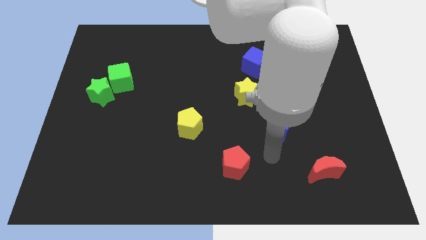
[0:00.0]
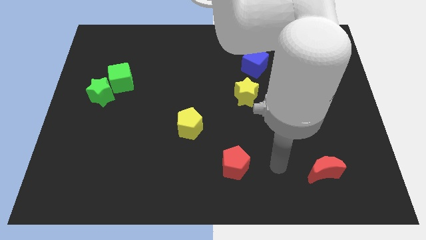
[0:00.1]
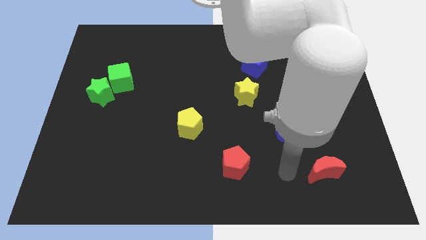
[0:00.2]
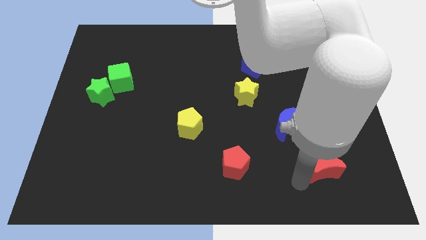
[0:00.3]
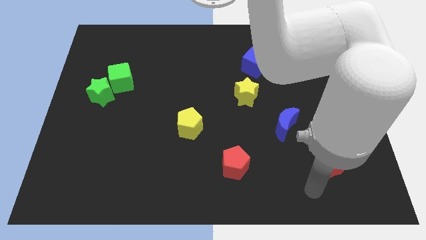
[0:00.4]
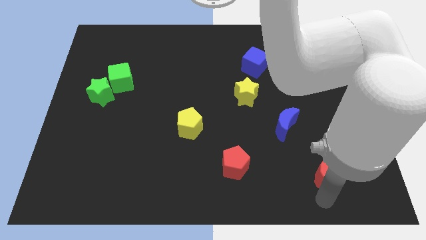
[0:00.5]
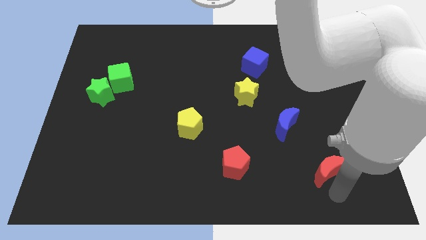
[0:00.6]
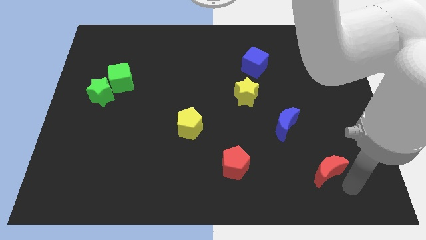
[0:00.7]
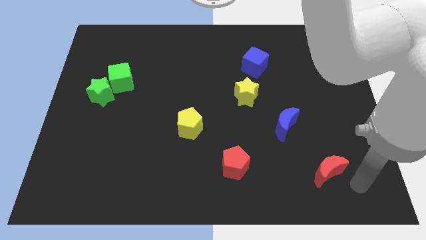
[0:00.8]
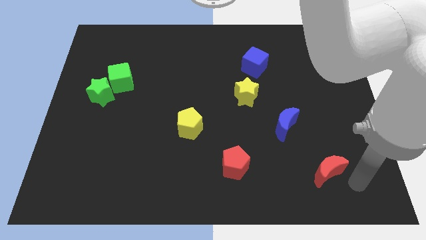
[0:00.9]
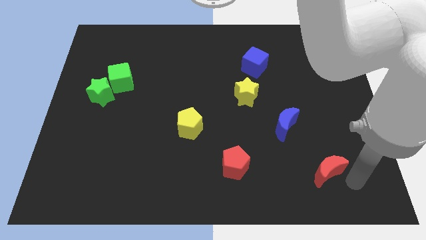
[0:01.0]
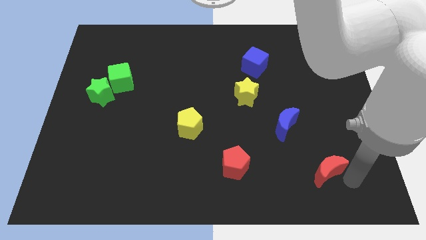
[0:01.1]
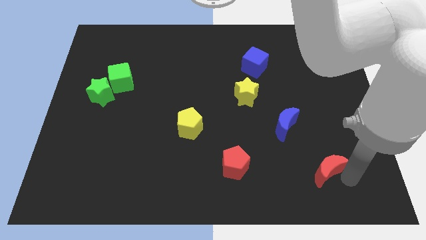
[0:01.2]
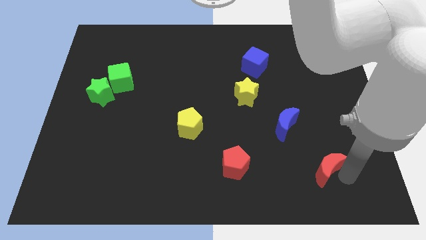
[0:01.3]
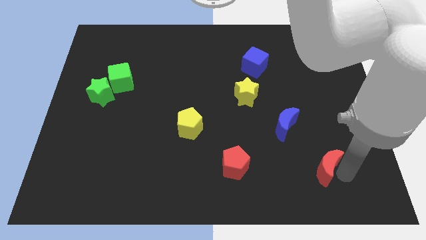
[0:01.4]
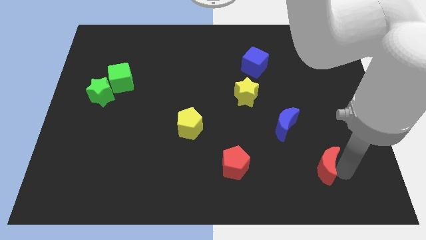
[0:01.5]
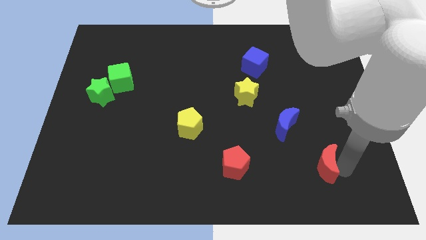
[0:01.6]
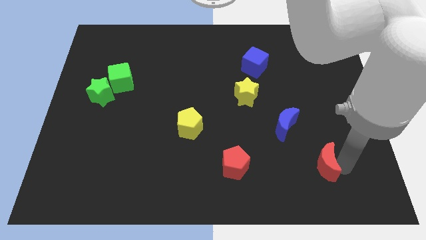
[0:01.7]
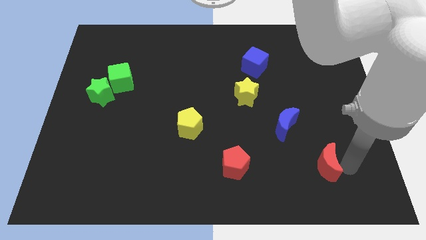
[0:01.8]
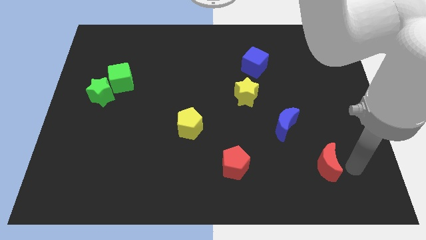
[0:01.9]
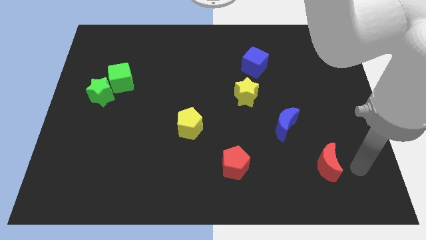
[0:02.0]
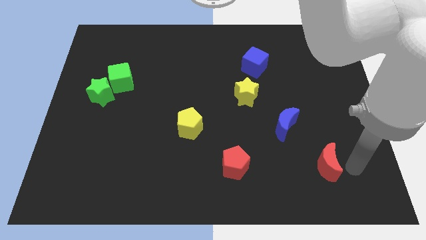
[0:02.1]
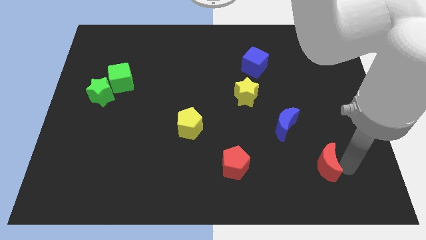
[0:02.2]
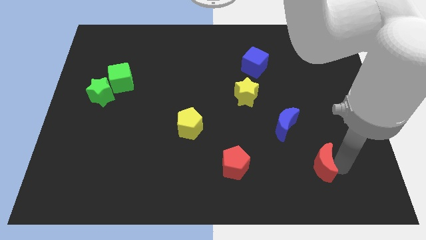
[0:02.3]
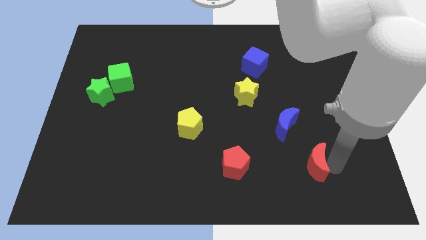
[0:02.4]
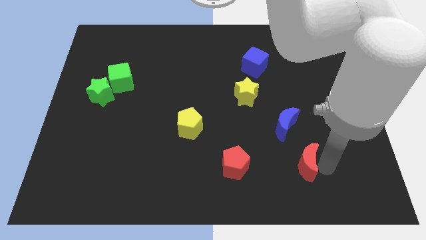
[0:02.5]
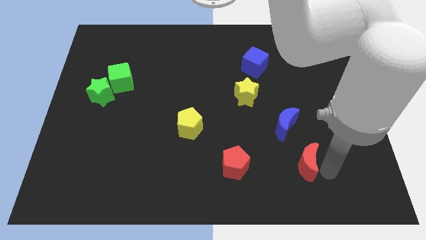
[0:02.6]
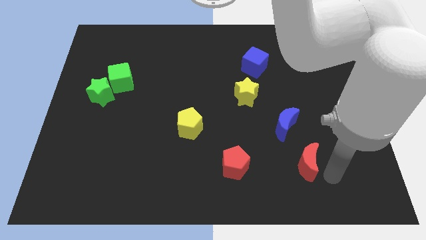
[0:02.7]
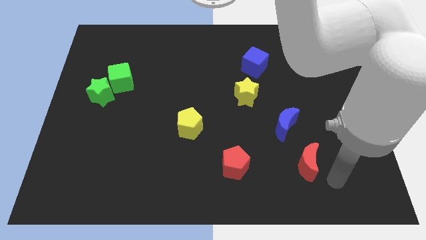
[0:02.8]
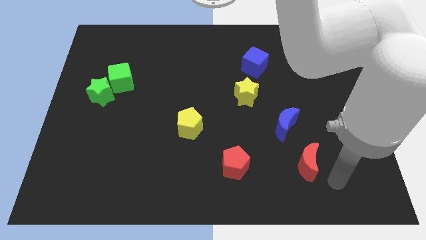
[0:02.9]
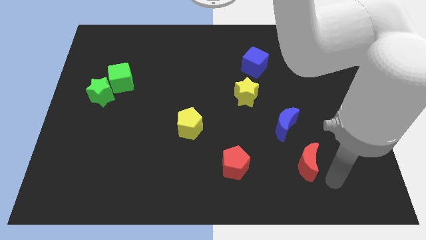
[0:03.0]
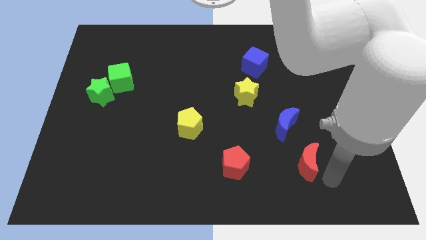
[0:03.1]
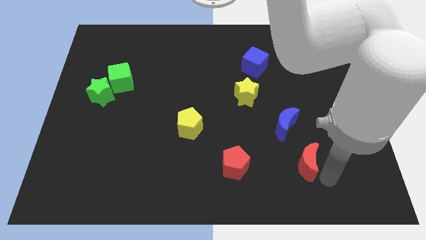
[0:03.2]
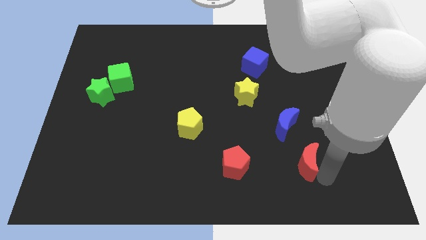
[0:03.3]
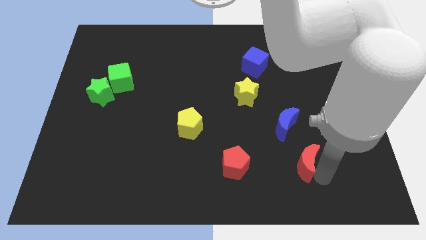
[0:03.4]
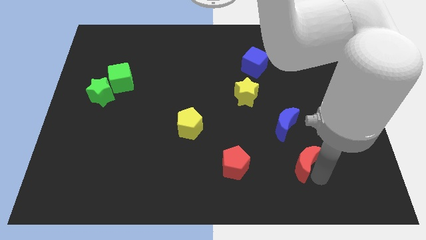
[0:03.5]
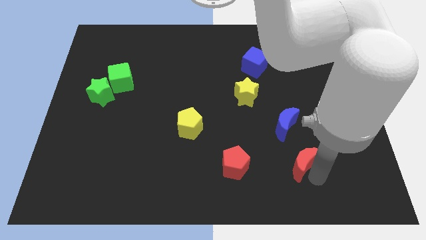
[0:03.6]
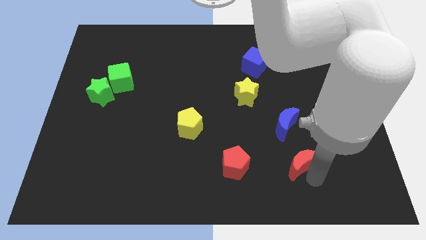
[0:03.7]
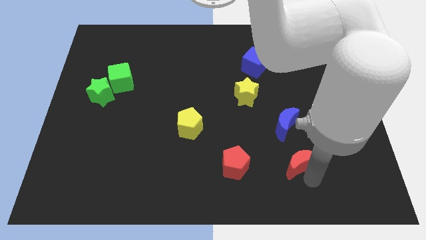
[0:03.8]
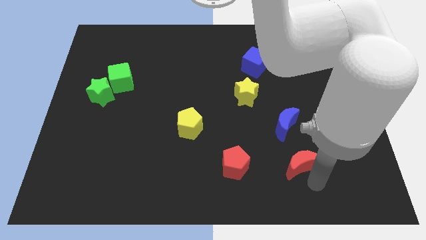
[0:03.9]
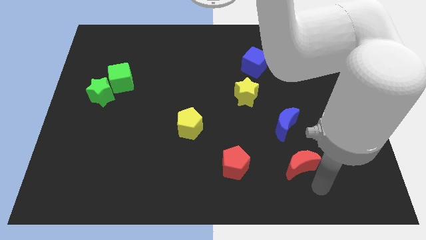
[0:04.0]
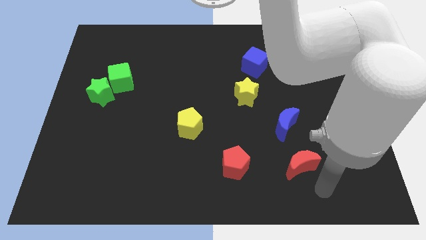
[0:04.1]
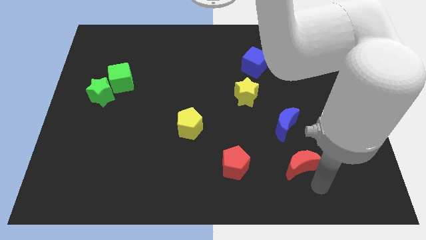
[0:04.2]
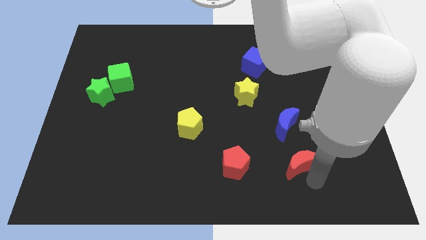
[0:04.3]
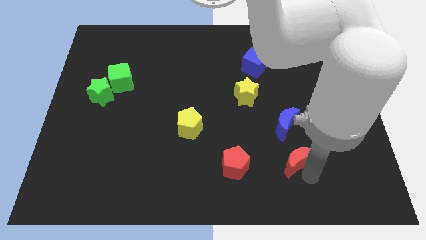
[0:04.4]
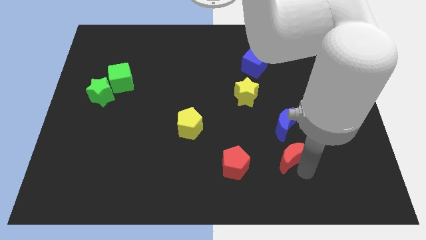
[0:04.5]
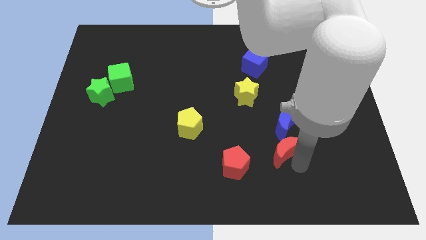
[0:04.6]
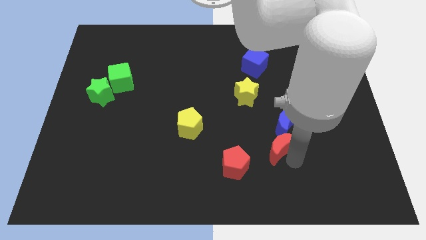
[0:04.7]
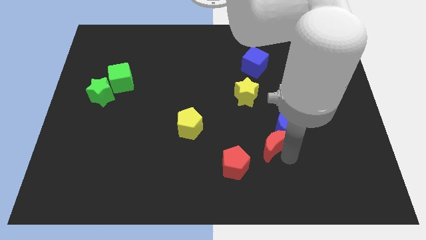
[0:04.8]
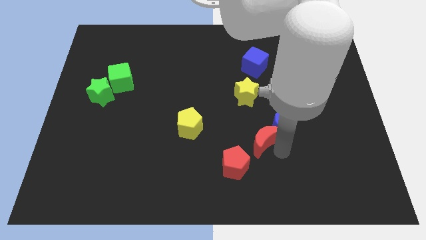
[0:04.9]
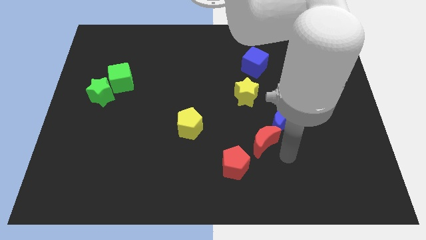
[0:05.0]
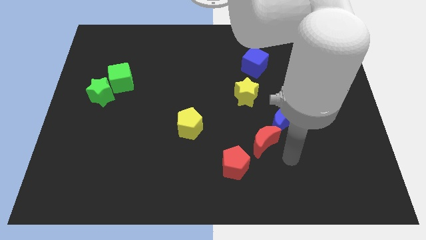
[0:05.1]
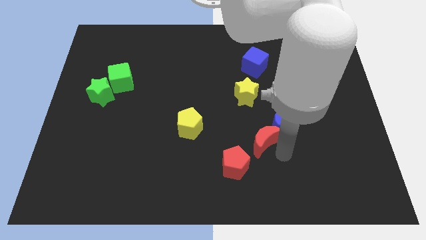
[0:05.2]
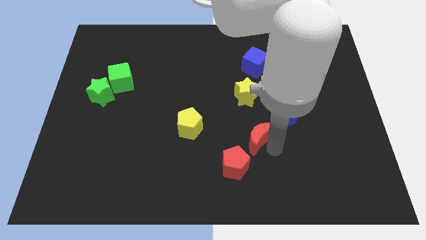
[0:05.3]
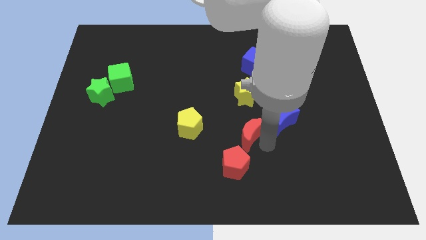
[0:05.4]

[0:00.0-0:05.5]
slide the red moon to the top of the red pentagon

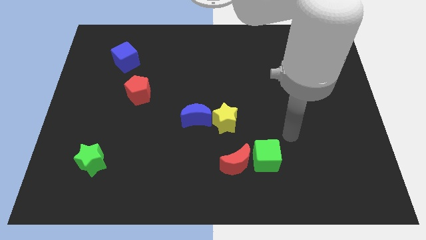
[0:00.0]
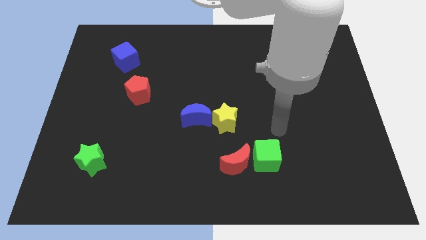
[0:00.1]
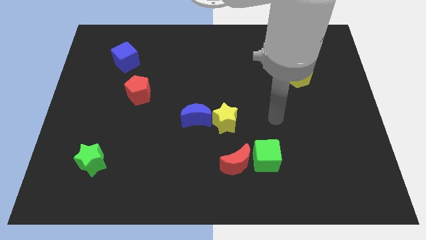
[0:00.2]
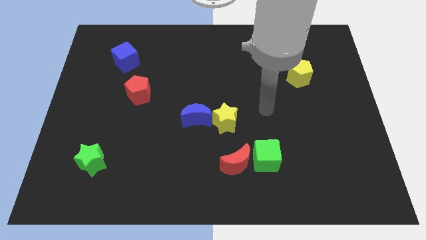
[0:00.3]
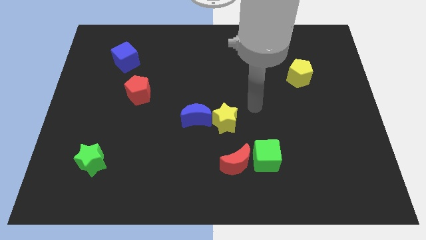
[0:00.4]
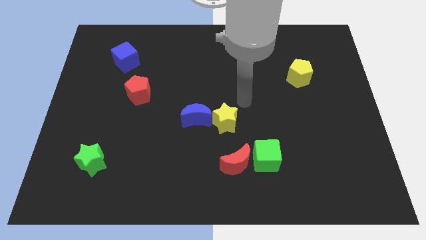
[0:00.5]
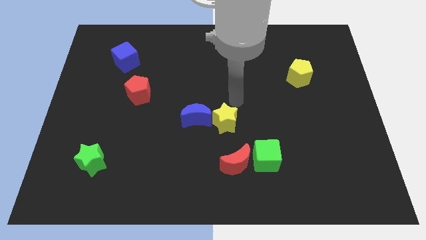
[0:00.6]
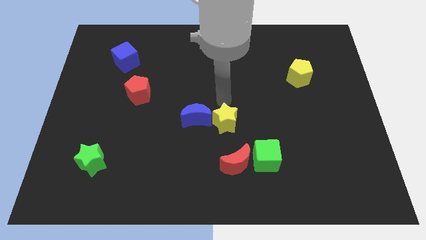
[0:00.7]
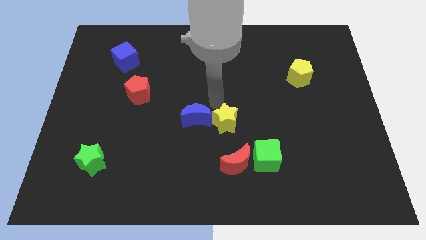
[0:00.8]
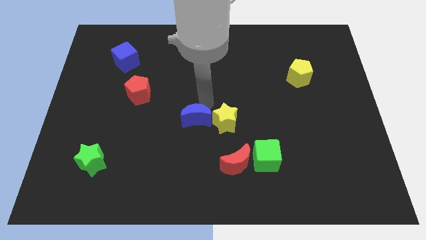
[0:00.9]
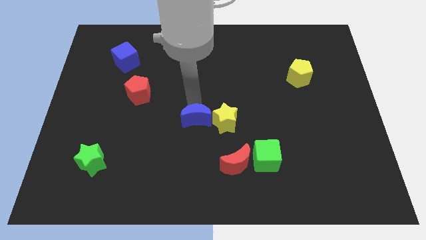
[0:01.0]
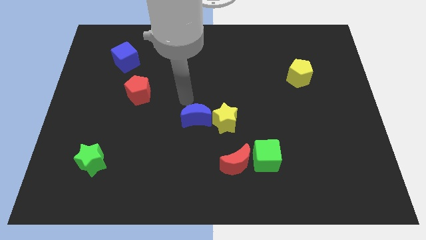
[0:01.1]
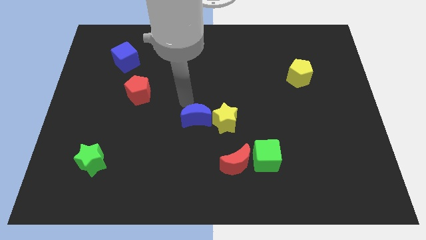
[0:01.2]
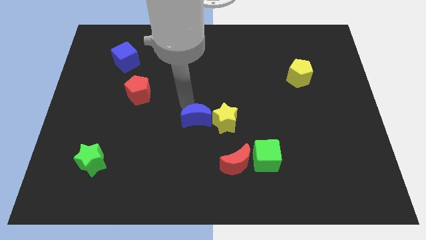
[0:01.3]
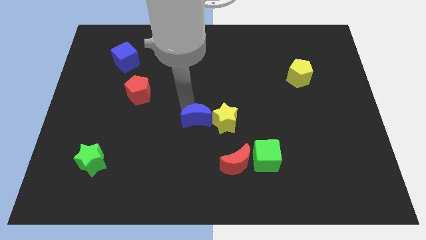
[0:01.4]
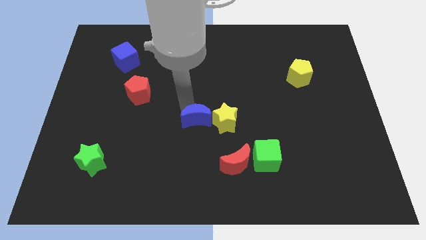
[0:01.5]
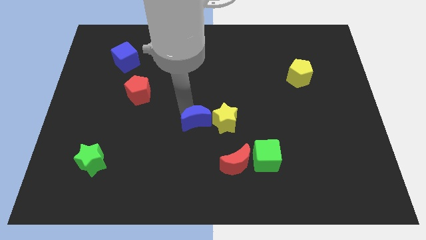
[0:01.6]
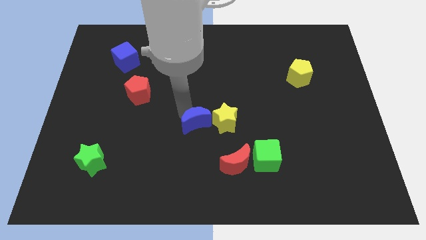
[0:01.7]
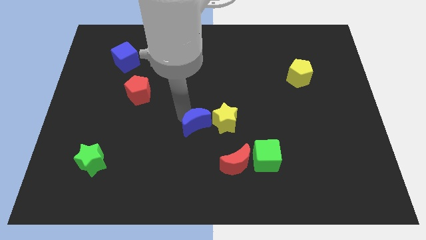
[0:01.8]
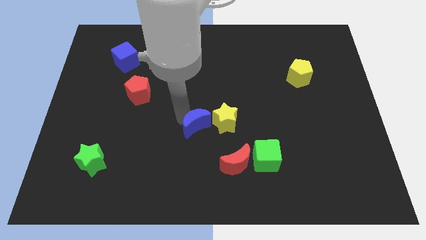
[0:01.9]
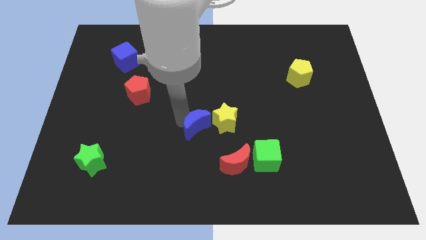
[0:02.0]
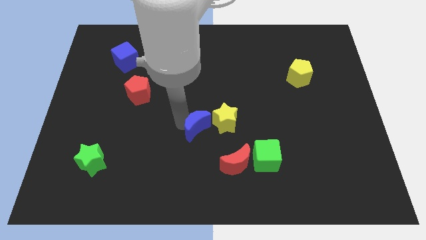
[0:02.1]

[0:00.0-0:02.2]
push the blue moon to the top left of the red moon
